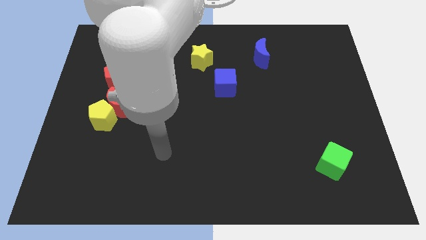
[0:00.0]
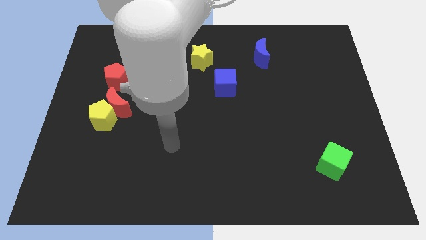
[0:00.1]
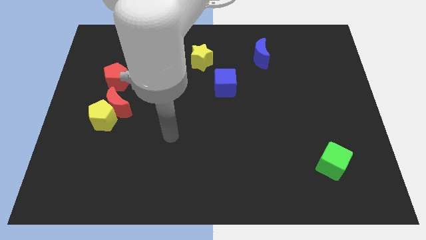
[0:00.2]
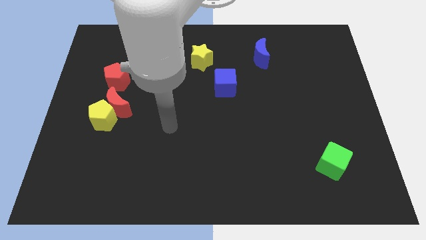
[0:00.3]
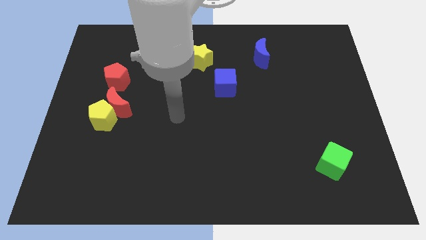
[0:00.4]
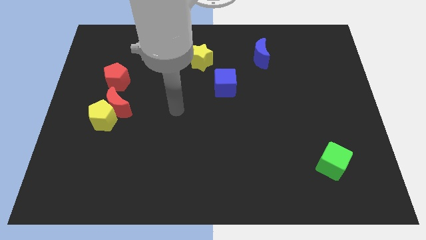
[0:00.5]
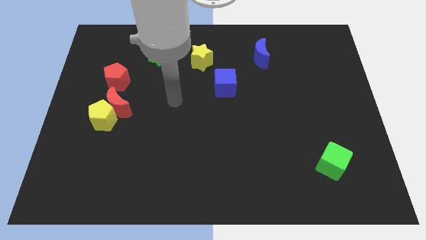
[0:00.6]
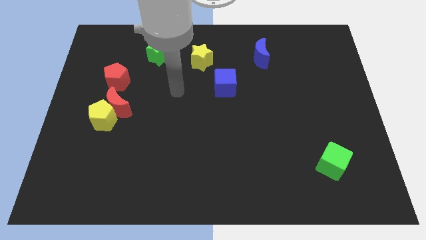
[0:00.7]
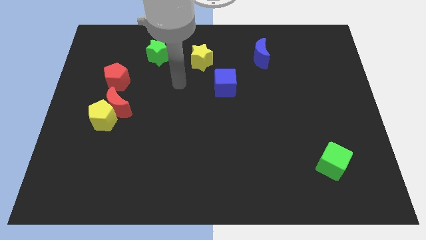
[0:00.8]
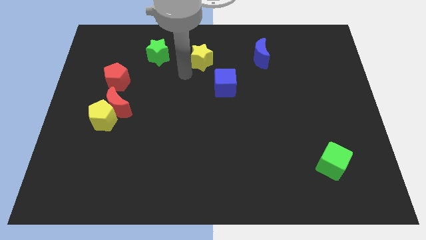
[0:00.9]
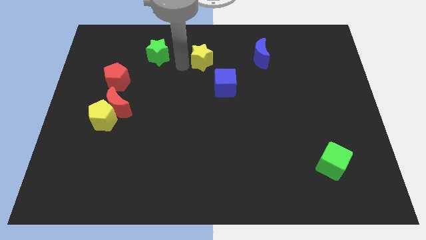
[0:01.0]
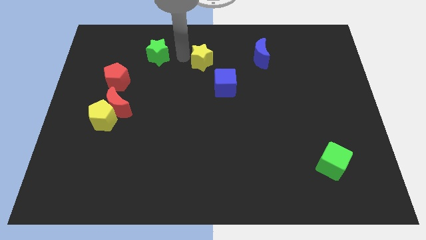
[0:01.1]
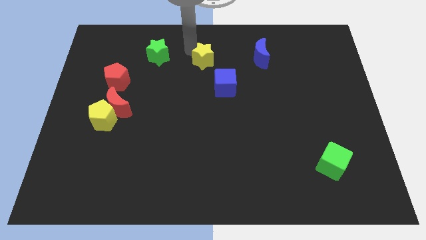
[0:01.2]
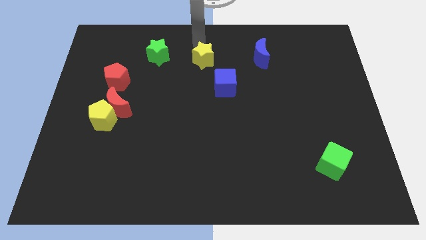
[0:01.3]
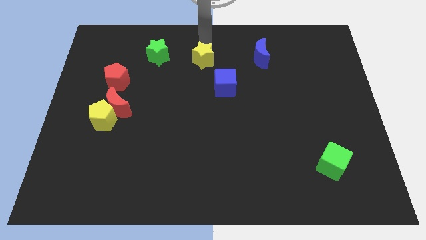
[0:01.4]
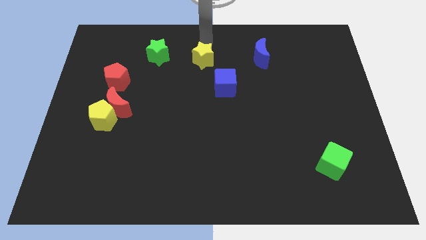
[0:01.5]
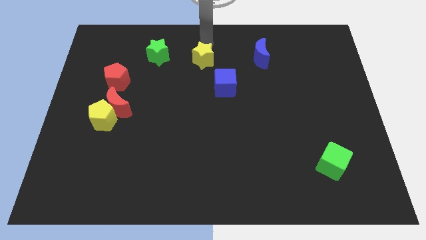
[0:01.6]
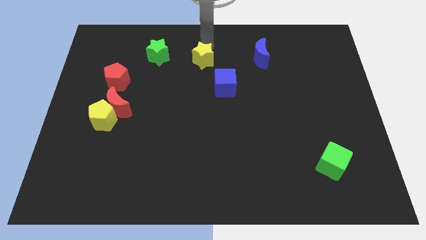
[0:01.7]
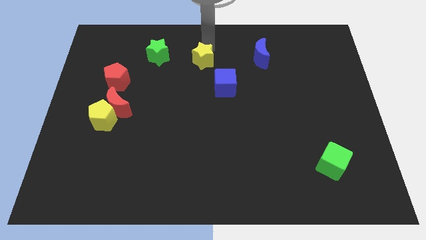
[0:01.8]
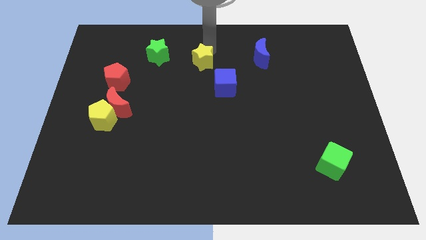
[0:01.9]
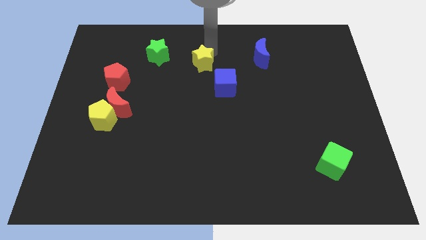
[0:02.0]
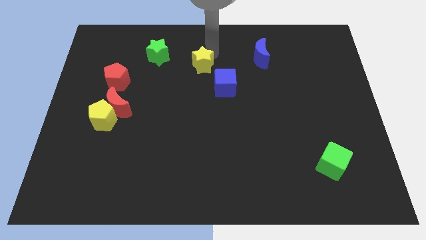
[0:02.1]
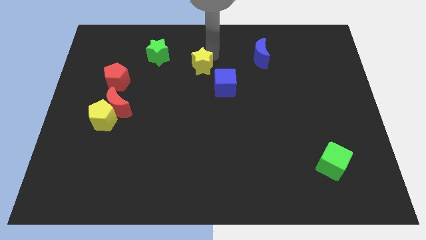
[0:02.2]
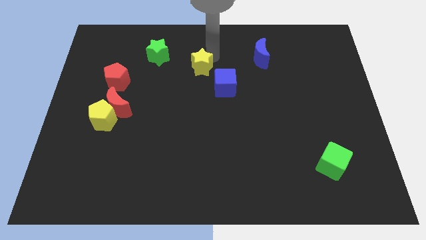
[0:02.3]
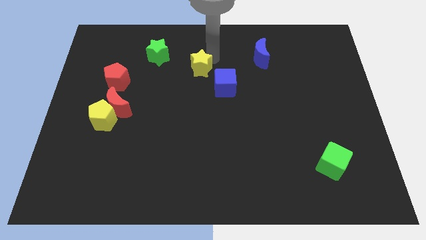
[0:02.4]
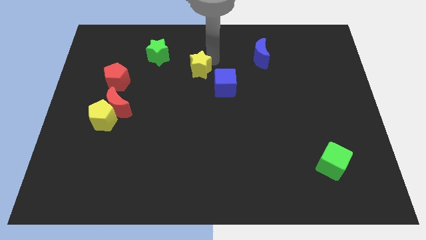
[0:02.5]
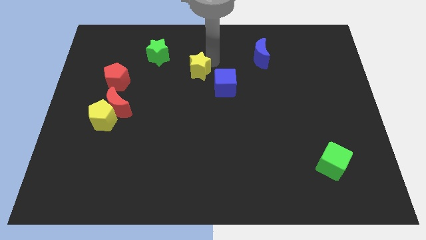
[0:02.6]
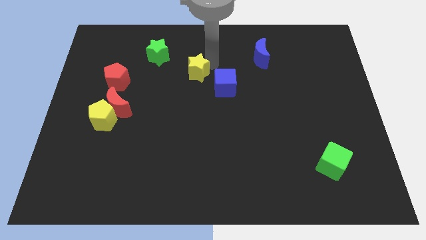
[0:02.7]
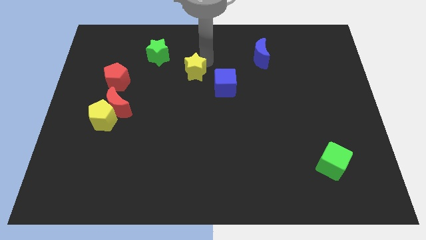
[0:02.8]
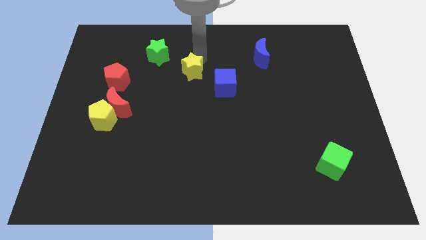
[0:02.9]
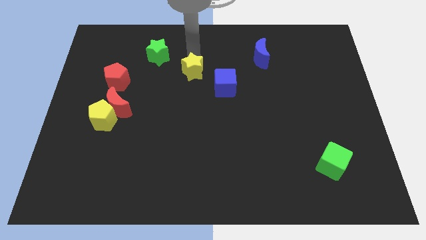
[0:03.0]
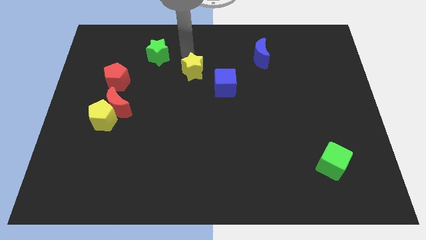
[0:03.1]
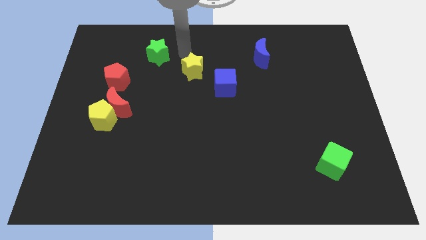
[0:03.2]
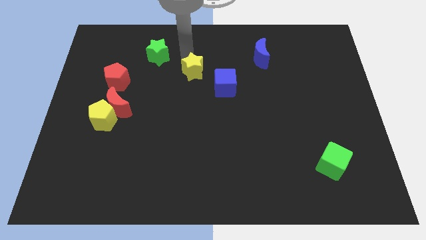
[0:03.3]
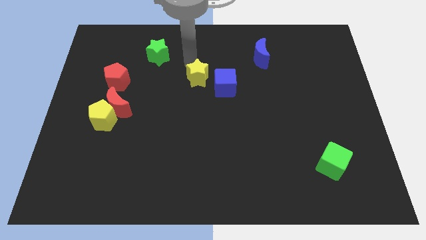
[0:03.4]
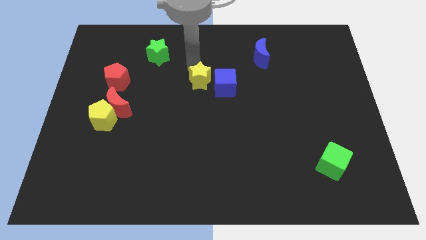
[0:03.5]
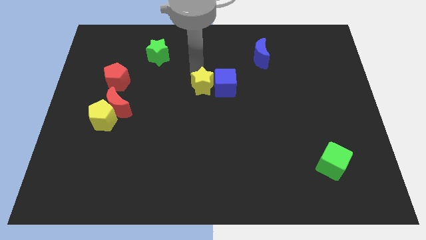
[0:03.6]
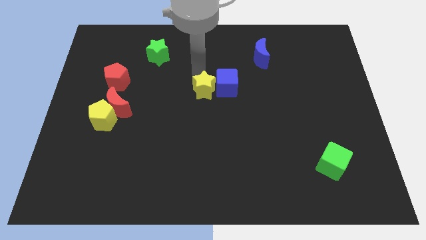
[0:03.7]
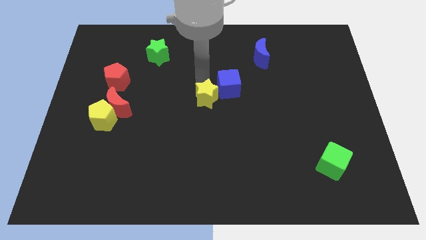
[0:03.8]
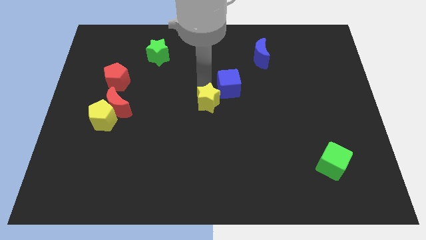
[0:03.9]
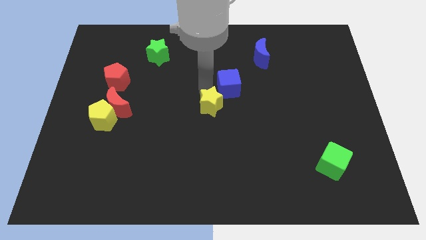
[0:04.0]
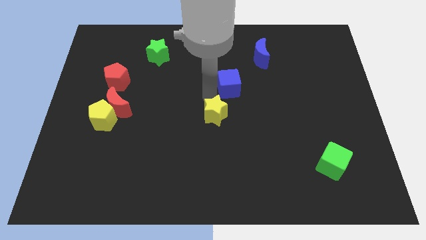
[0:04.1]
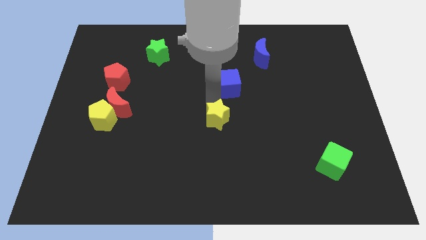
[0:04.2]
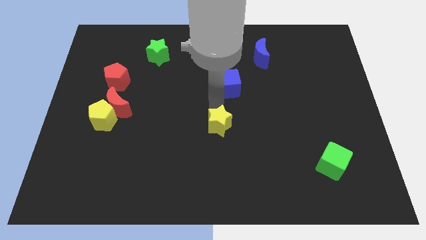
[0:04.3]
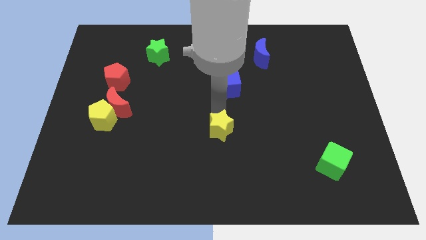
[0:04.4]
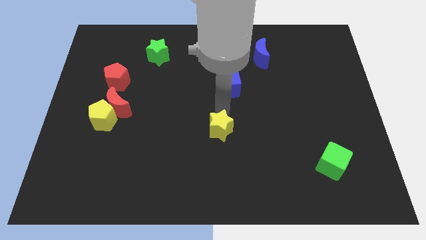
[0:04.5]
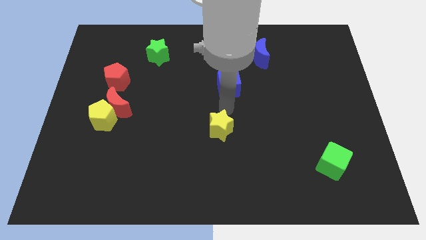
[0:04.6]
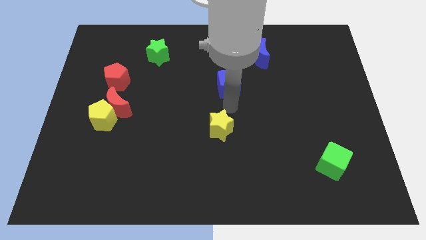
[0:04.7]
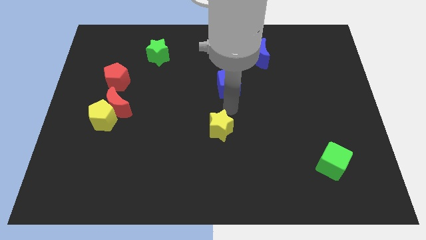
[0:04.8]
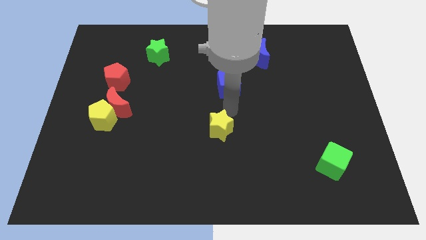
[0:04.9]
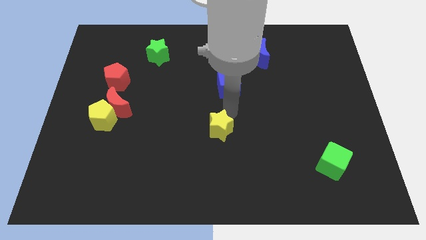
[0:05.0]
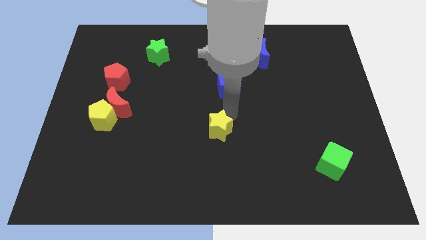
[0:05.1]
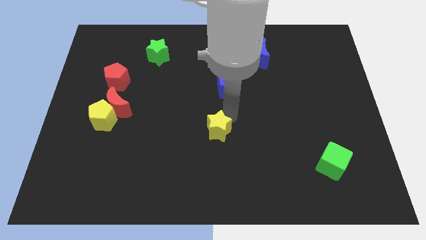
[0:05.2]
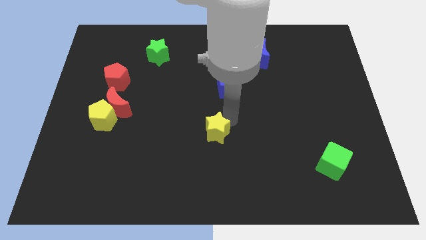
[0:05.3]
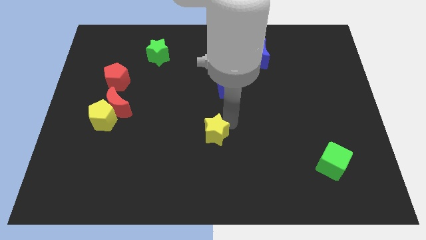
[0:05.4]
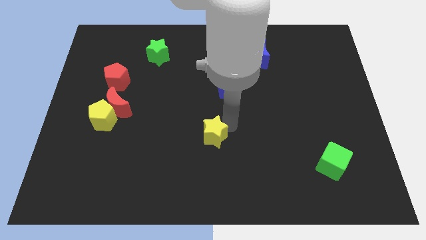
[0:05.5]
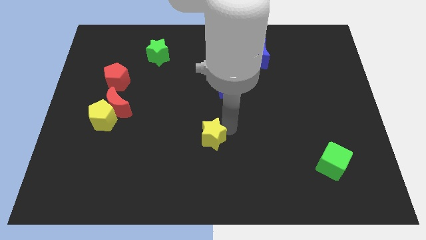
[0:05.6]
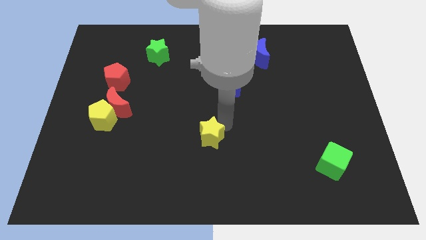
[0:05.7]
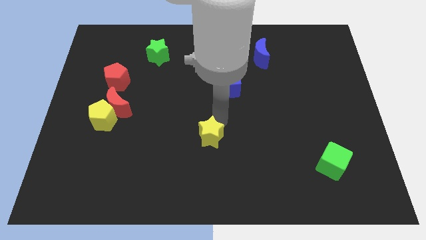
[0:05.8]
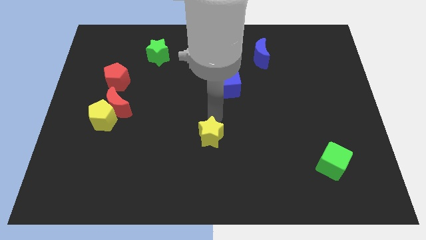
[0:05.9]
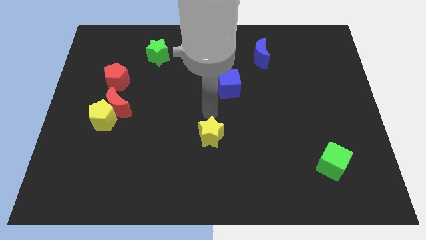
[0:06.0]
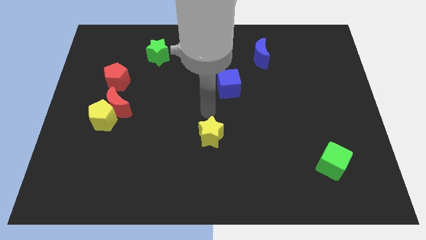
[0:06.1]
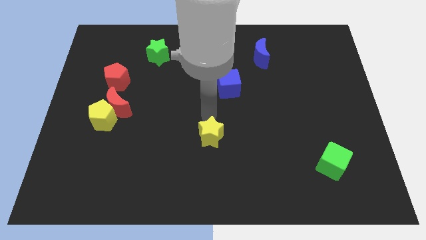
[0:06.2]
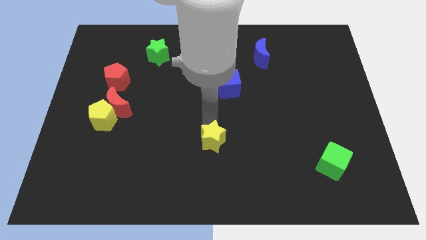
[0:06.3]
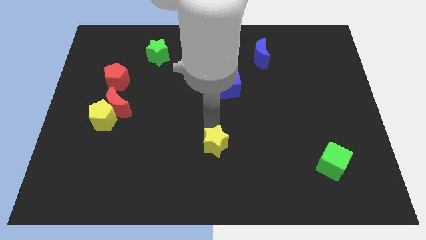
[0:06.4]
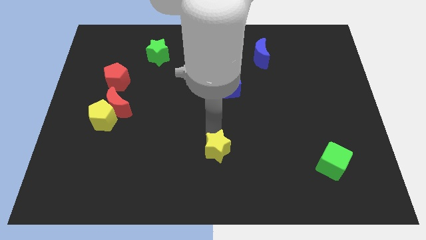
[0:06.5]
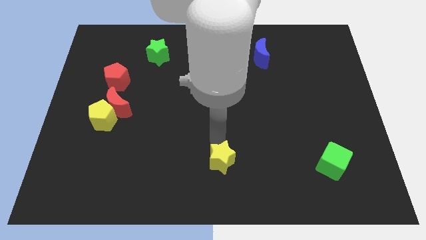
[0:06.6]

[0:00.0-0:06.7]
slide the yellow star to the bottom
